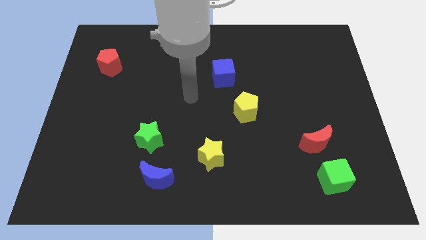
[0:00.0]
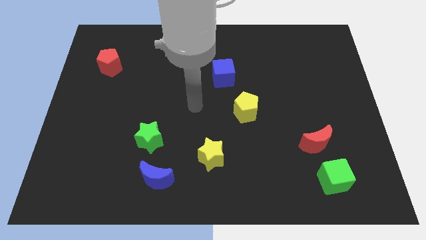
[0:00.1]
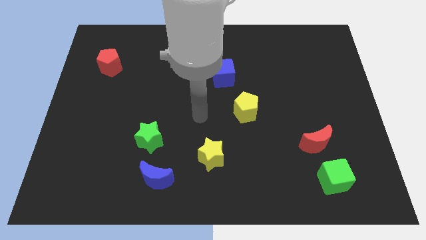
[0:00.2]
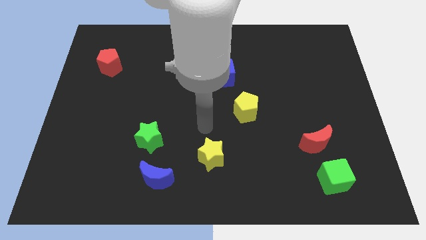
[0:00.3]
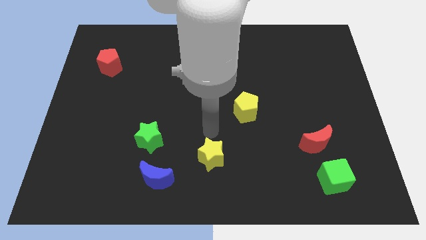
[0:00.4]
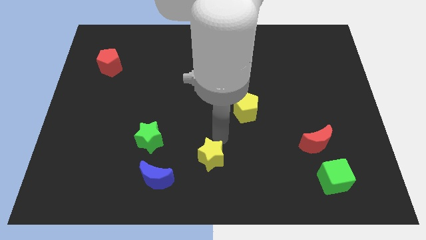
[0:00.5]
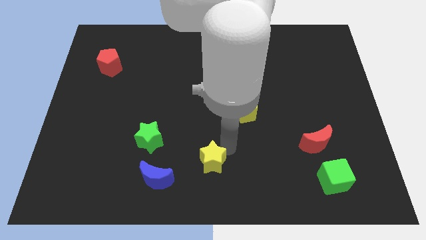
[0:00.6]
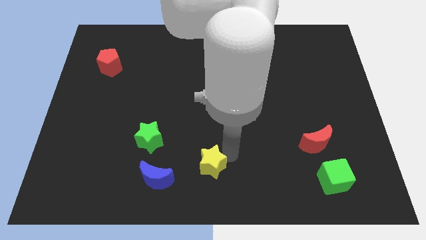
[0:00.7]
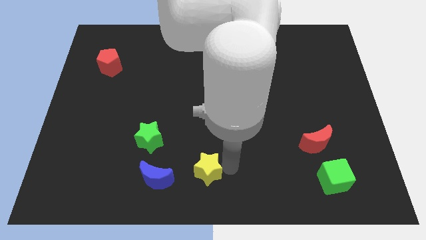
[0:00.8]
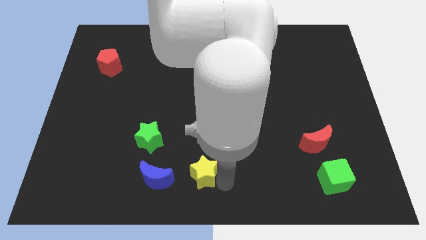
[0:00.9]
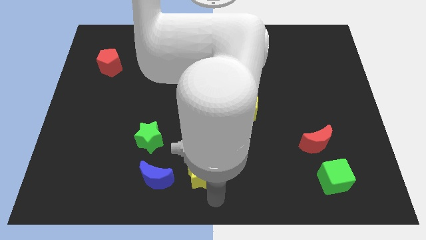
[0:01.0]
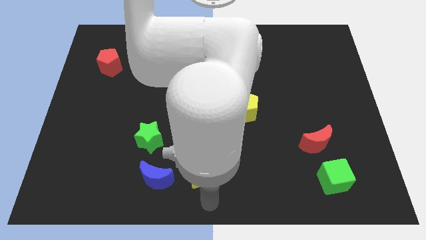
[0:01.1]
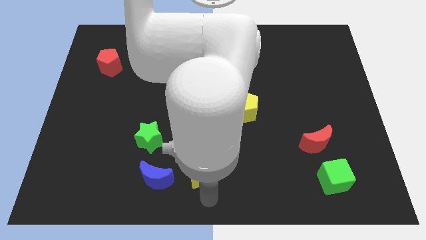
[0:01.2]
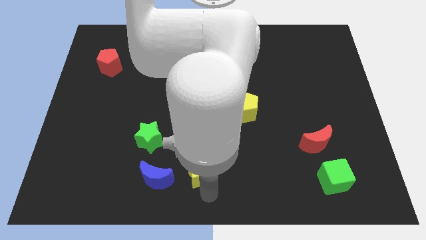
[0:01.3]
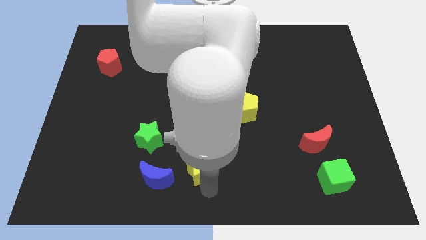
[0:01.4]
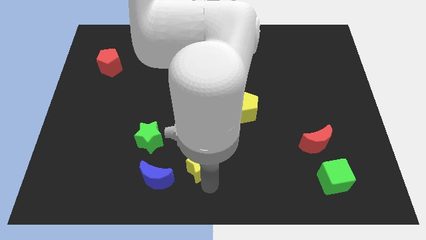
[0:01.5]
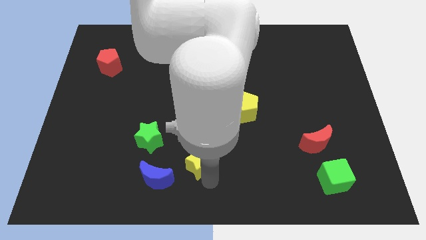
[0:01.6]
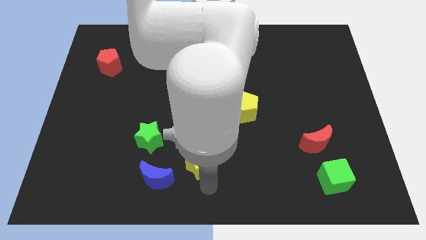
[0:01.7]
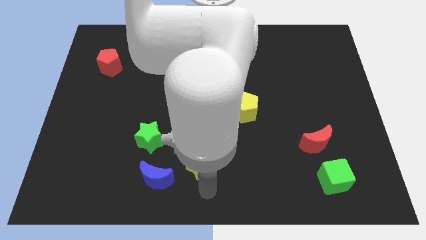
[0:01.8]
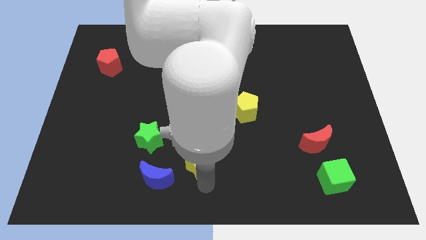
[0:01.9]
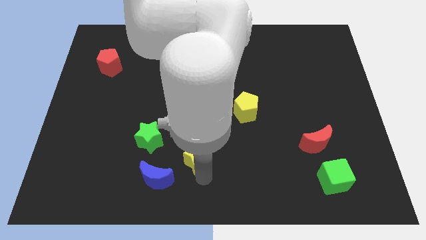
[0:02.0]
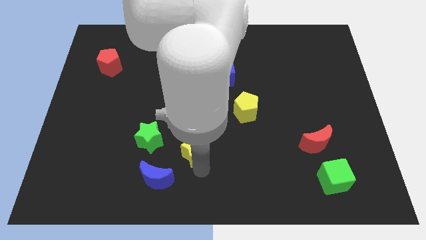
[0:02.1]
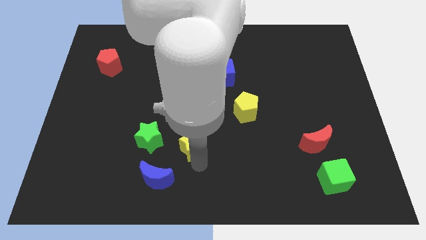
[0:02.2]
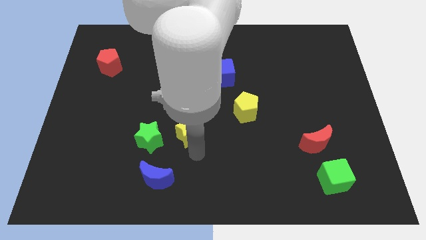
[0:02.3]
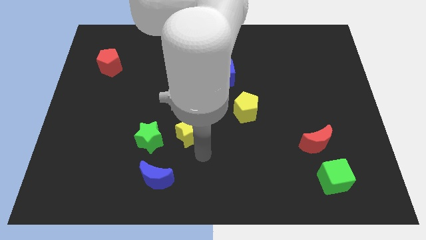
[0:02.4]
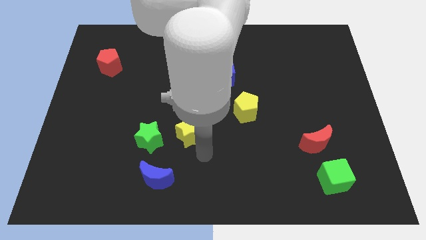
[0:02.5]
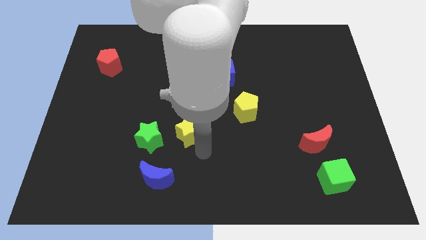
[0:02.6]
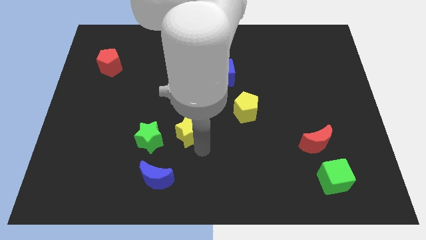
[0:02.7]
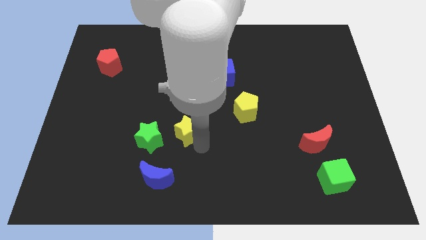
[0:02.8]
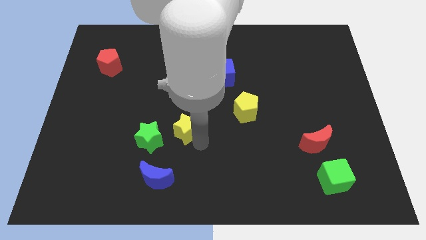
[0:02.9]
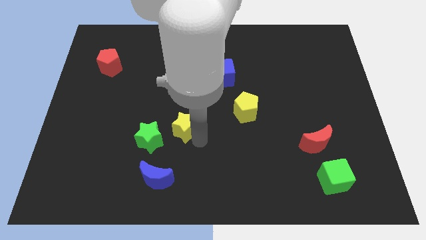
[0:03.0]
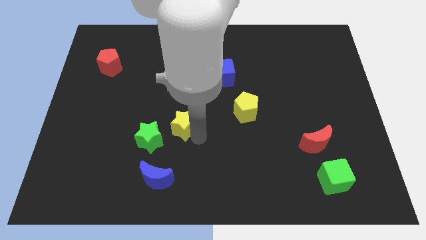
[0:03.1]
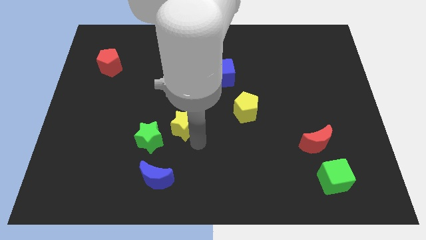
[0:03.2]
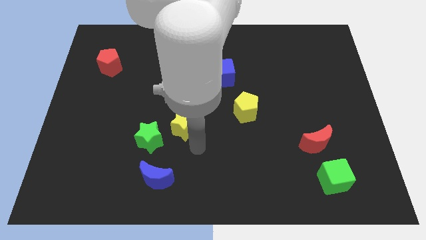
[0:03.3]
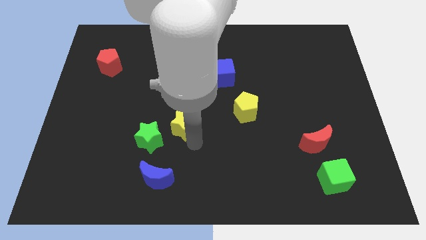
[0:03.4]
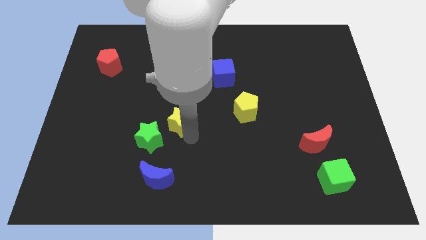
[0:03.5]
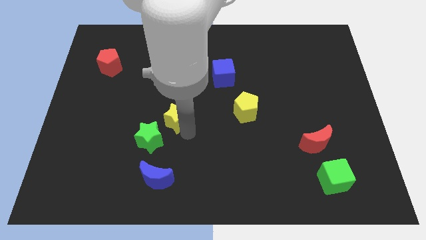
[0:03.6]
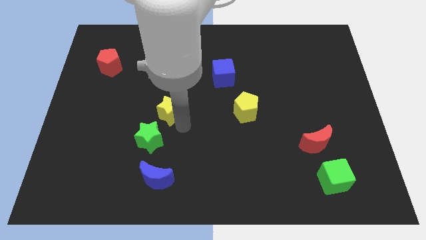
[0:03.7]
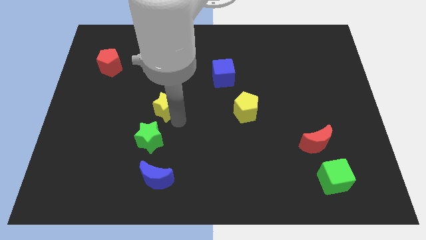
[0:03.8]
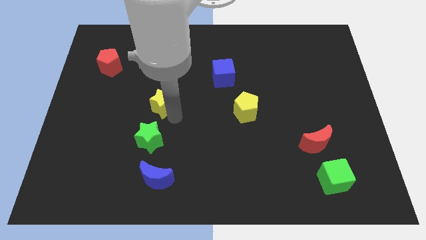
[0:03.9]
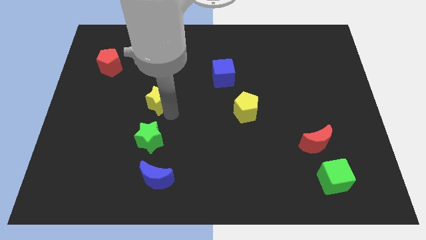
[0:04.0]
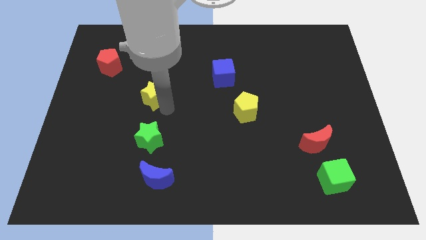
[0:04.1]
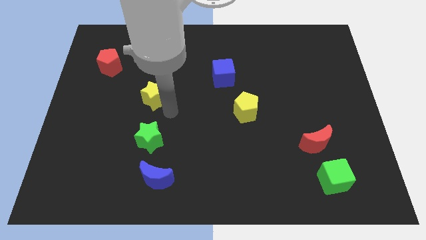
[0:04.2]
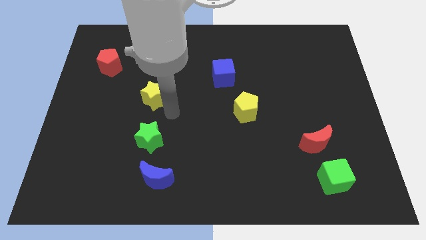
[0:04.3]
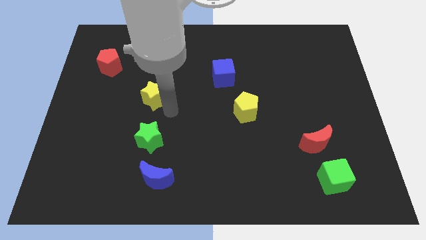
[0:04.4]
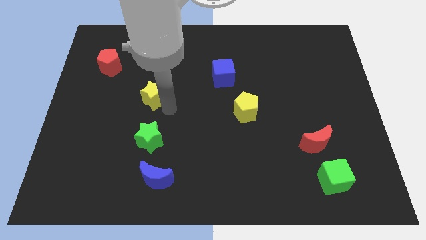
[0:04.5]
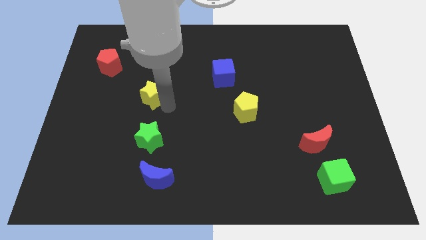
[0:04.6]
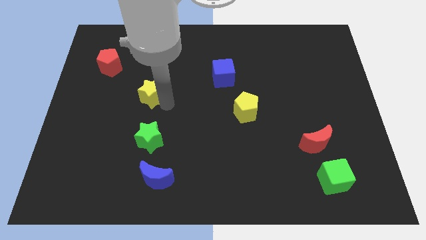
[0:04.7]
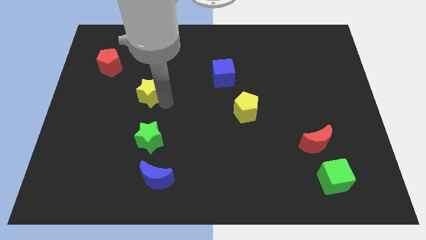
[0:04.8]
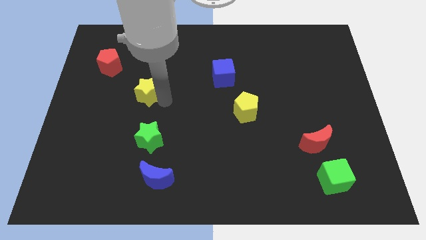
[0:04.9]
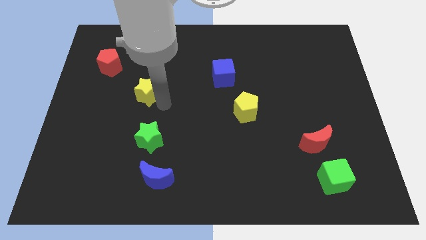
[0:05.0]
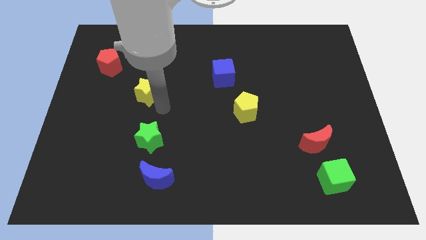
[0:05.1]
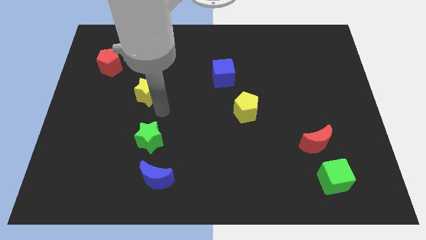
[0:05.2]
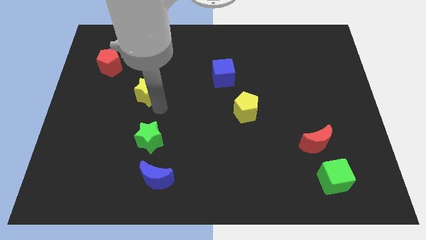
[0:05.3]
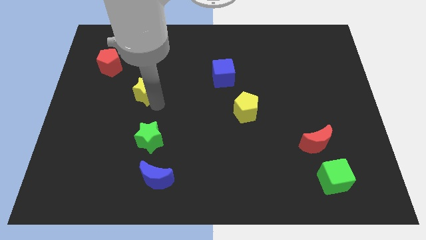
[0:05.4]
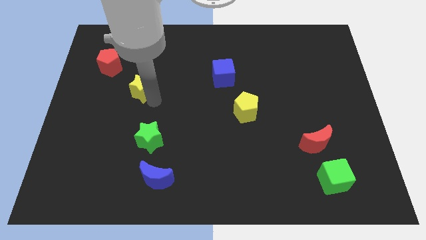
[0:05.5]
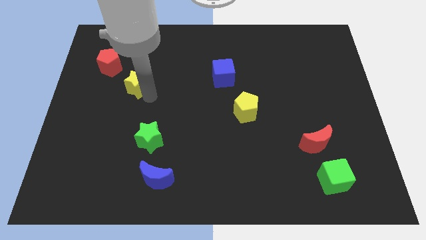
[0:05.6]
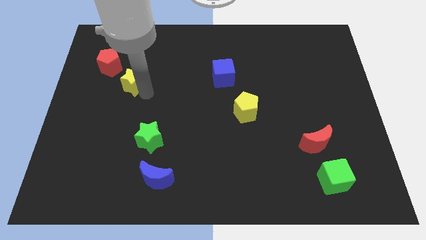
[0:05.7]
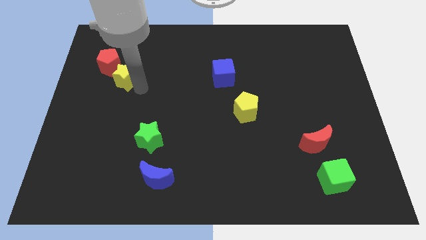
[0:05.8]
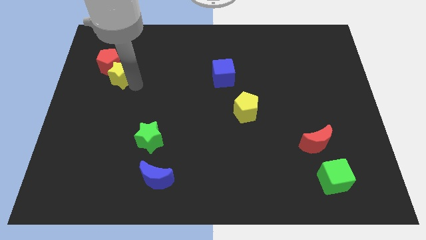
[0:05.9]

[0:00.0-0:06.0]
move the yellow star towards the red pentagon
